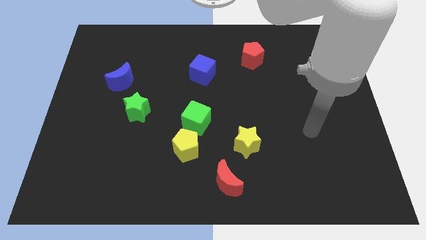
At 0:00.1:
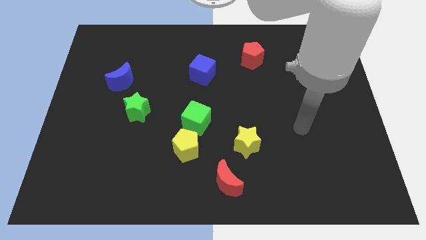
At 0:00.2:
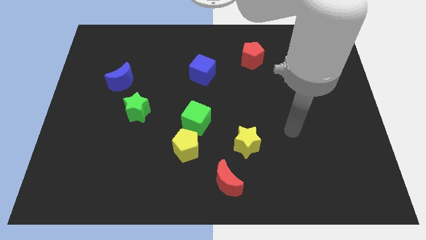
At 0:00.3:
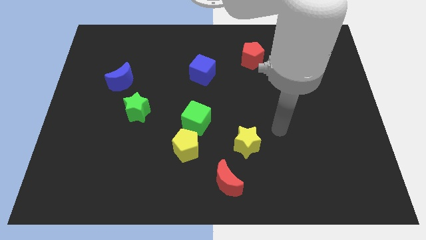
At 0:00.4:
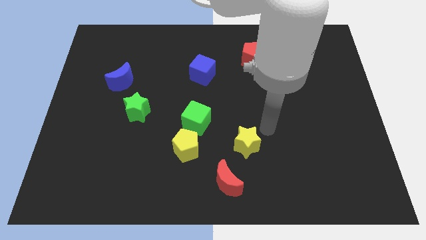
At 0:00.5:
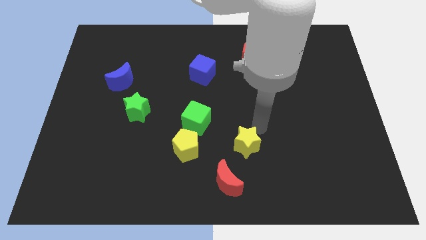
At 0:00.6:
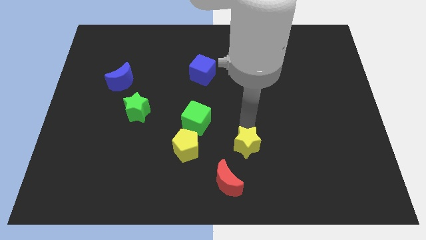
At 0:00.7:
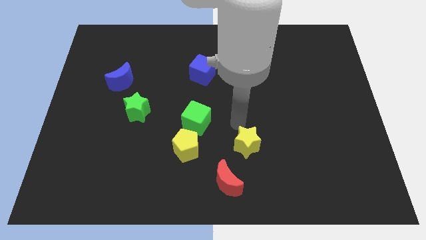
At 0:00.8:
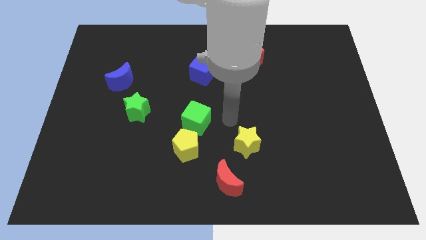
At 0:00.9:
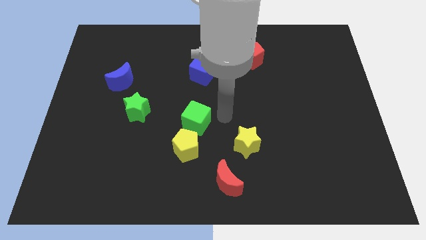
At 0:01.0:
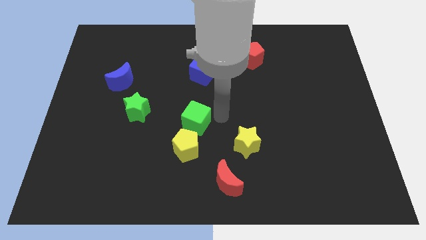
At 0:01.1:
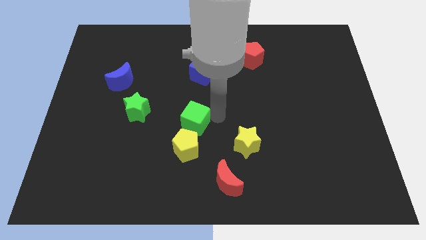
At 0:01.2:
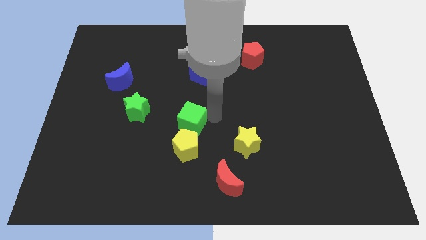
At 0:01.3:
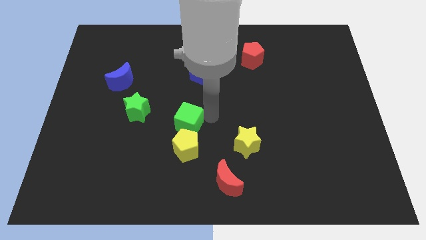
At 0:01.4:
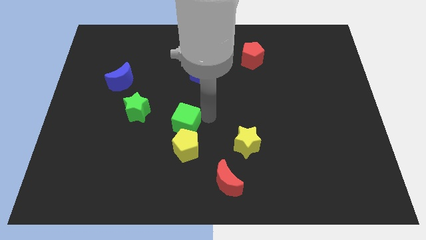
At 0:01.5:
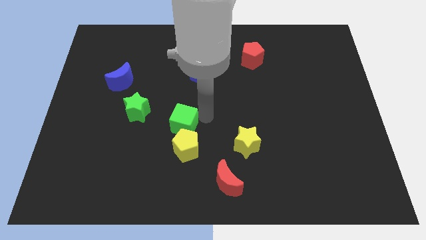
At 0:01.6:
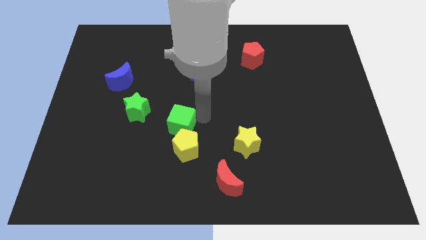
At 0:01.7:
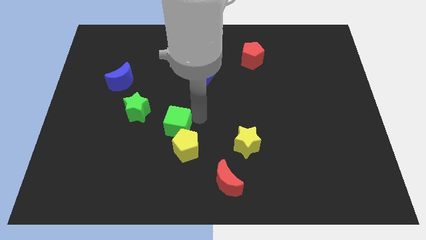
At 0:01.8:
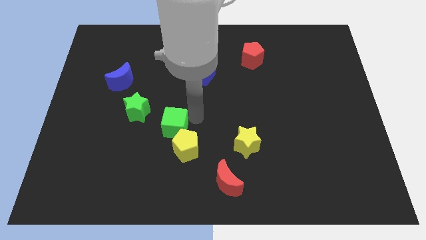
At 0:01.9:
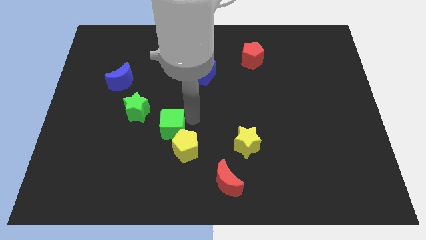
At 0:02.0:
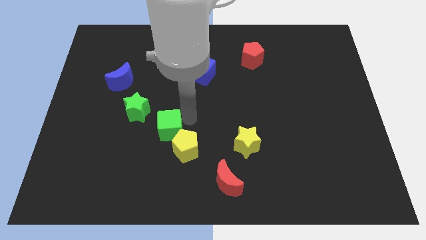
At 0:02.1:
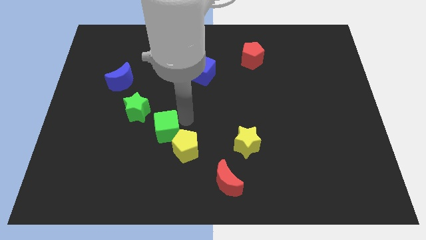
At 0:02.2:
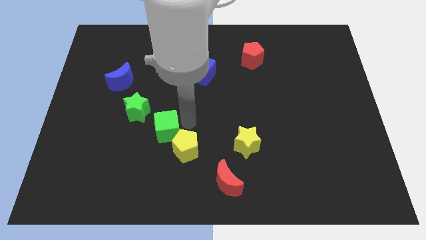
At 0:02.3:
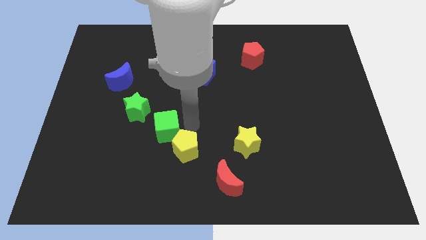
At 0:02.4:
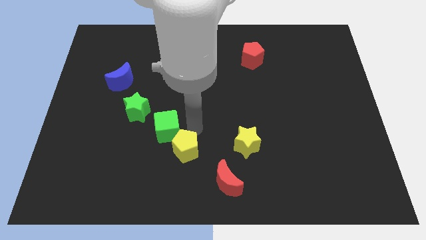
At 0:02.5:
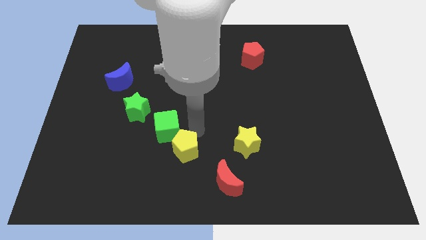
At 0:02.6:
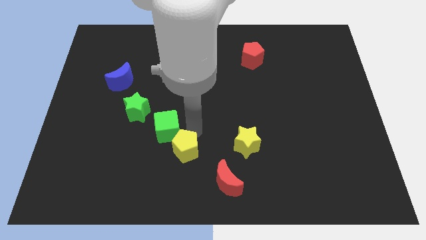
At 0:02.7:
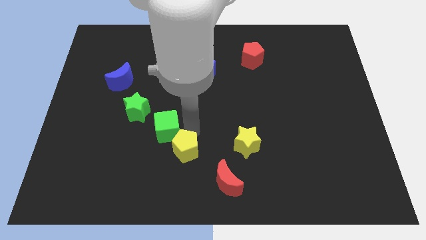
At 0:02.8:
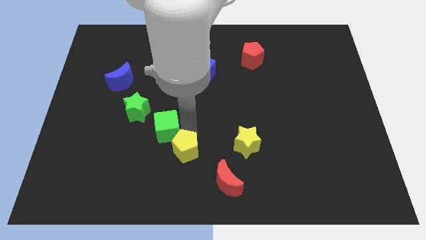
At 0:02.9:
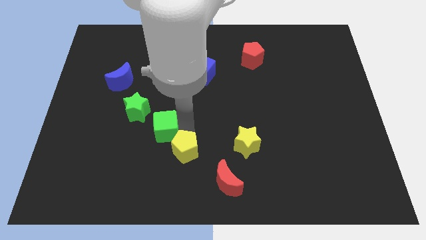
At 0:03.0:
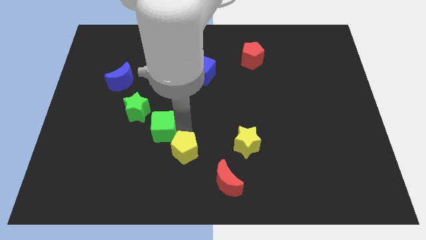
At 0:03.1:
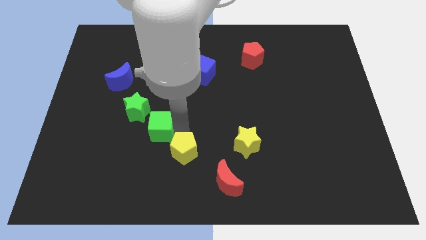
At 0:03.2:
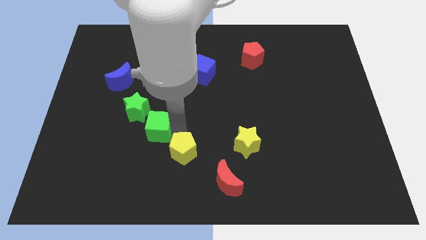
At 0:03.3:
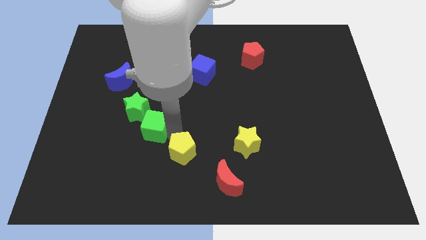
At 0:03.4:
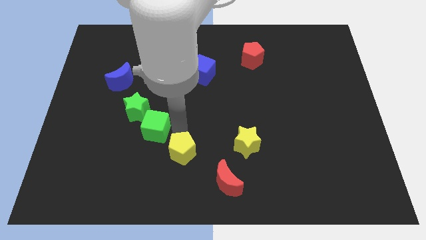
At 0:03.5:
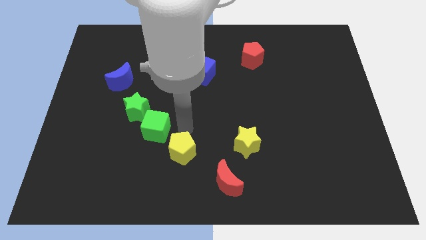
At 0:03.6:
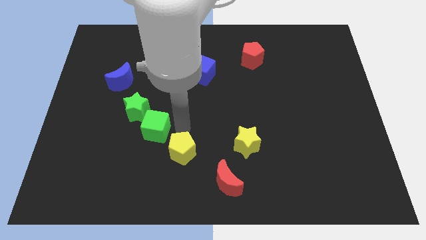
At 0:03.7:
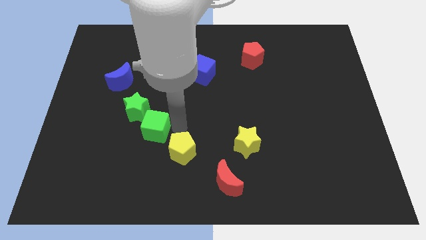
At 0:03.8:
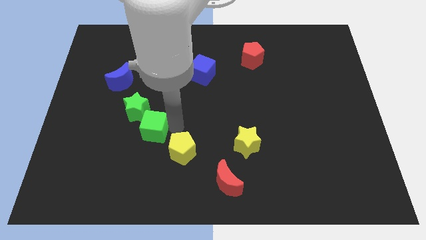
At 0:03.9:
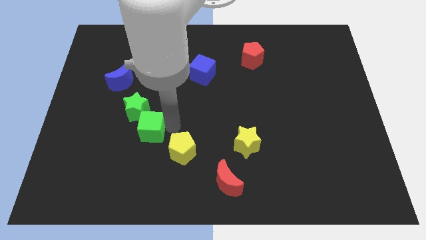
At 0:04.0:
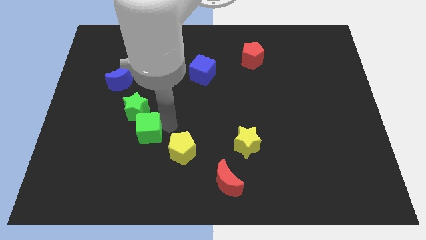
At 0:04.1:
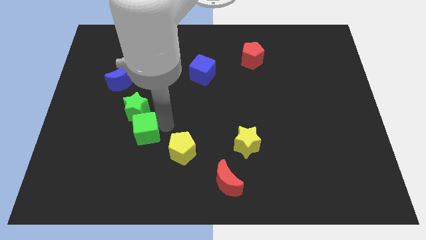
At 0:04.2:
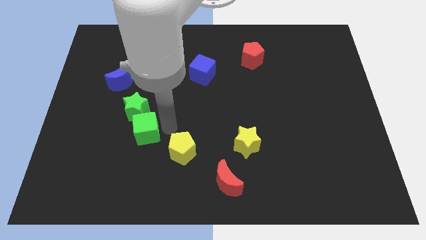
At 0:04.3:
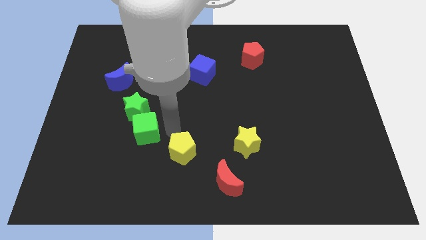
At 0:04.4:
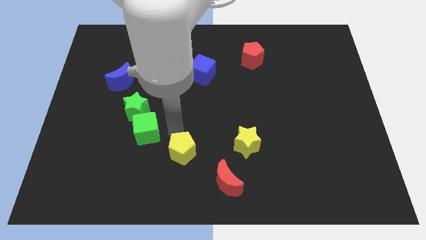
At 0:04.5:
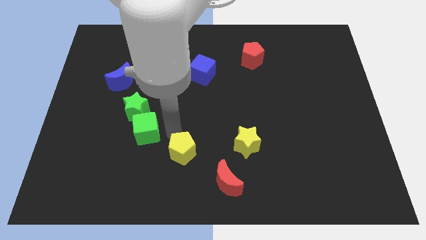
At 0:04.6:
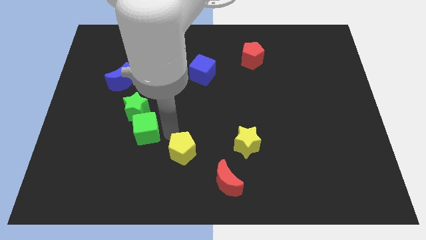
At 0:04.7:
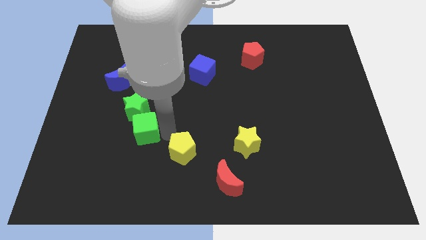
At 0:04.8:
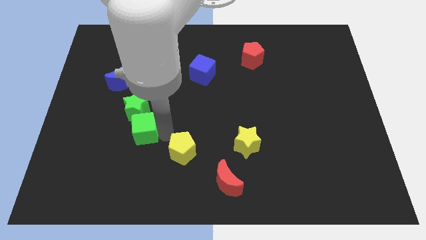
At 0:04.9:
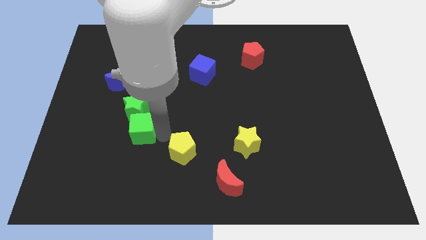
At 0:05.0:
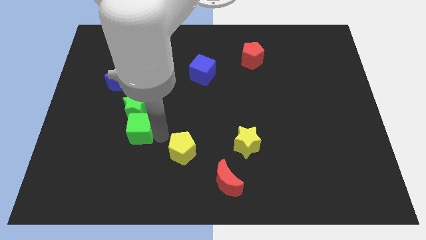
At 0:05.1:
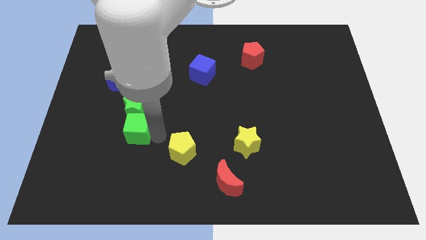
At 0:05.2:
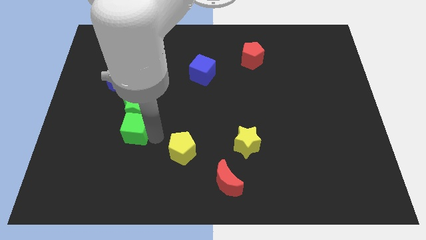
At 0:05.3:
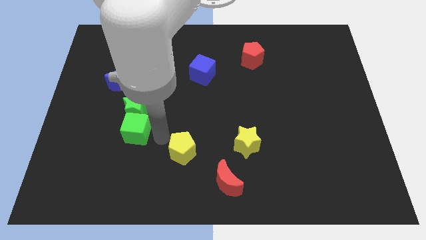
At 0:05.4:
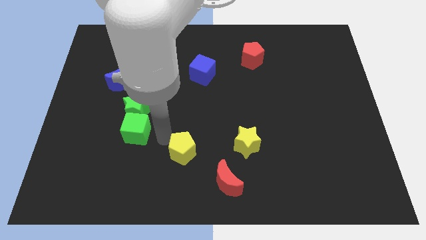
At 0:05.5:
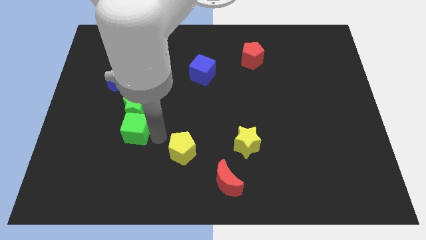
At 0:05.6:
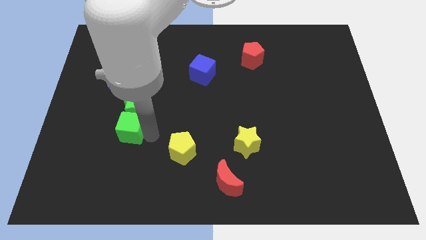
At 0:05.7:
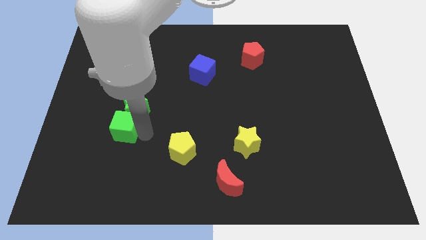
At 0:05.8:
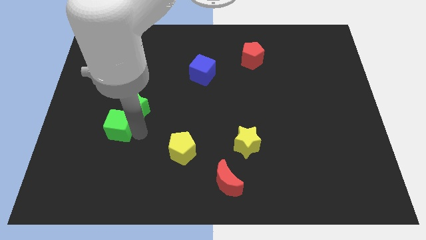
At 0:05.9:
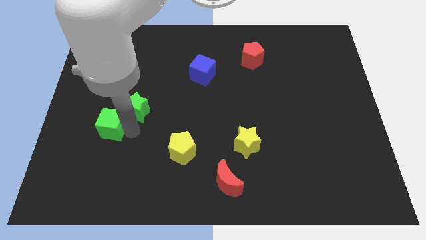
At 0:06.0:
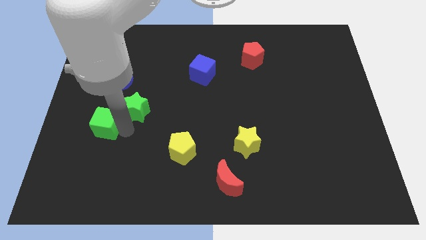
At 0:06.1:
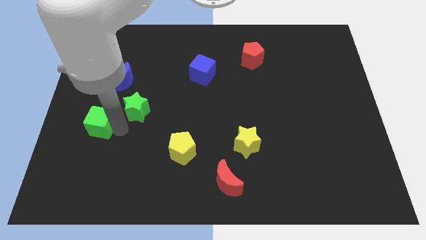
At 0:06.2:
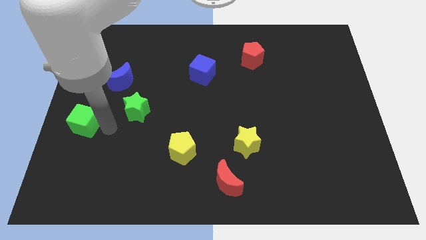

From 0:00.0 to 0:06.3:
slide the green cube to the center left

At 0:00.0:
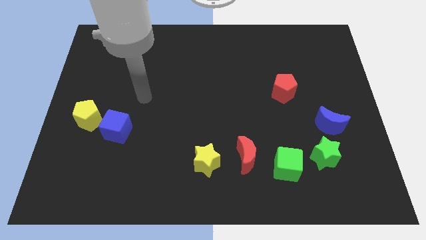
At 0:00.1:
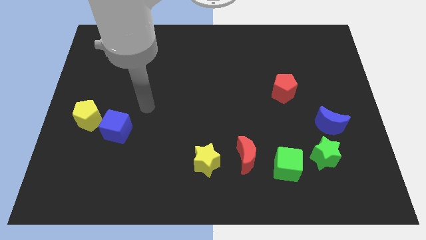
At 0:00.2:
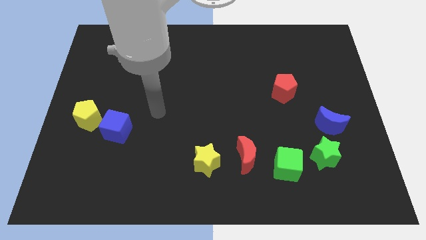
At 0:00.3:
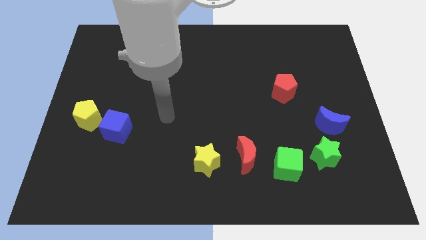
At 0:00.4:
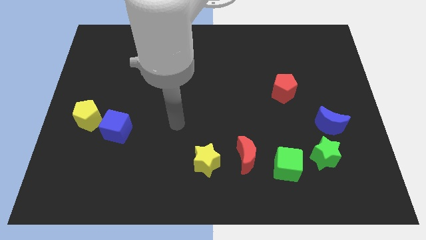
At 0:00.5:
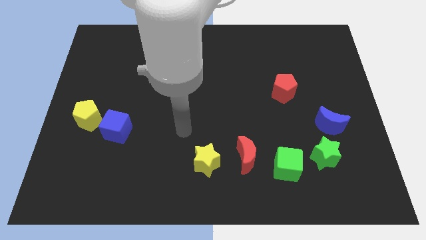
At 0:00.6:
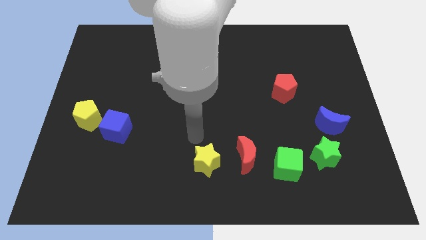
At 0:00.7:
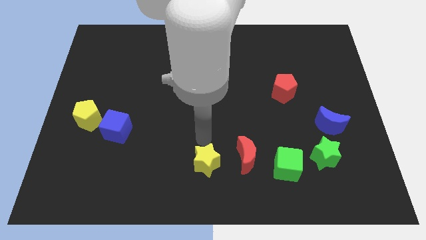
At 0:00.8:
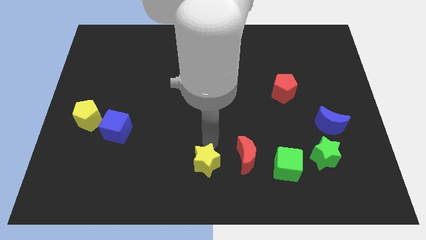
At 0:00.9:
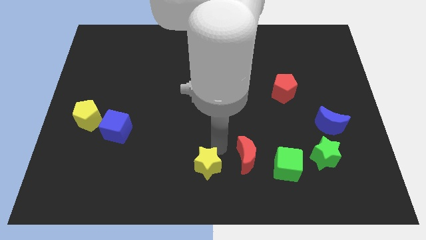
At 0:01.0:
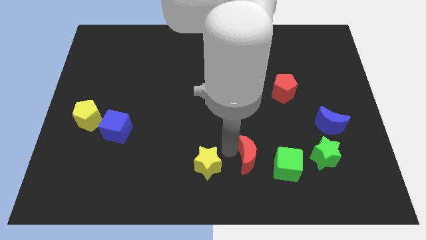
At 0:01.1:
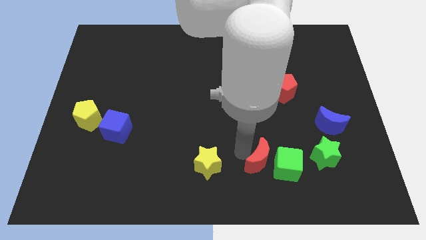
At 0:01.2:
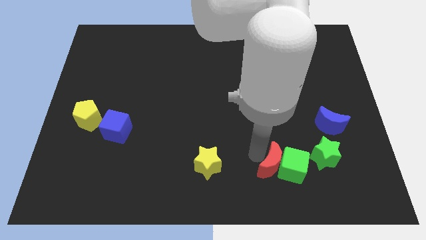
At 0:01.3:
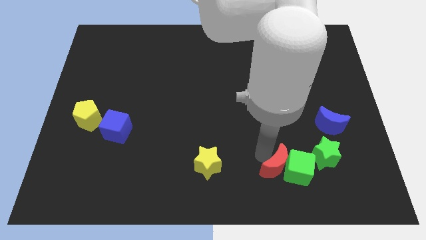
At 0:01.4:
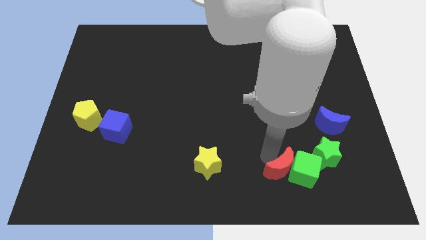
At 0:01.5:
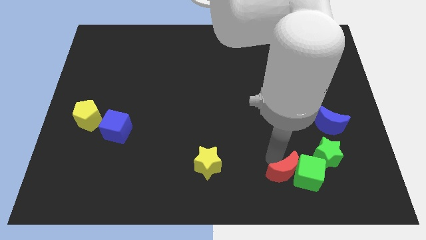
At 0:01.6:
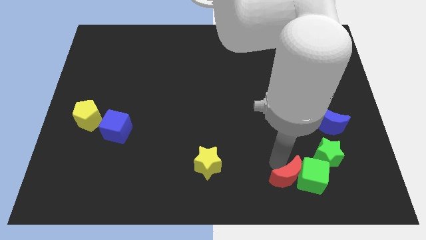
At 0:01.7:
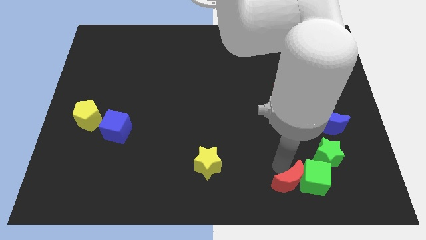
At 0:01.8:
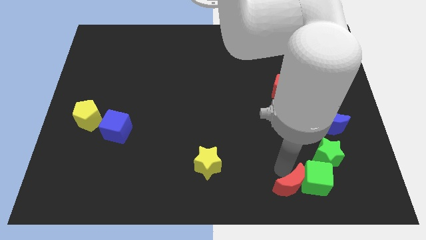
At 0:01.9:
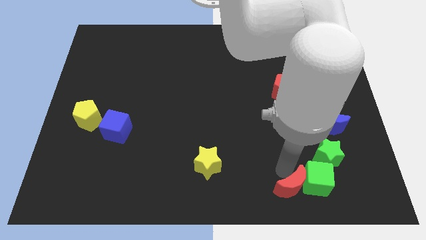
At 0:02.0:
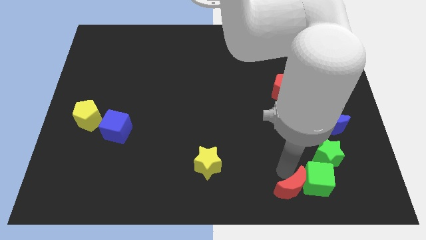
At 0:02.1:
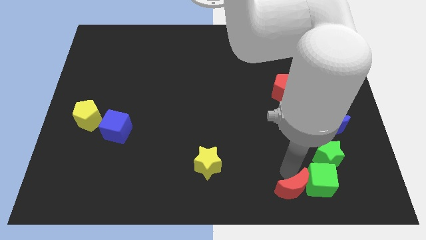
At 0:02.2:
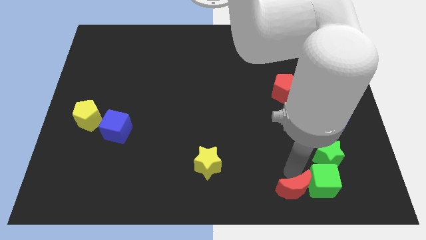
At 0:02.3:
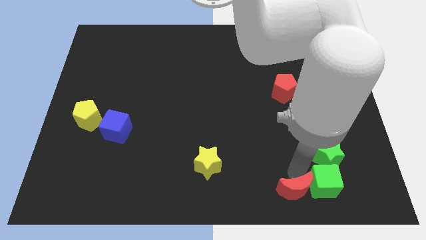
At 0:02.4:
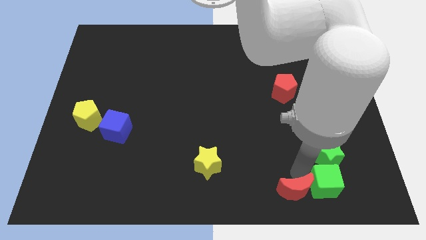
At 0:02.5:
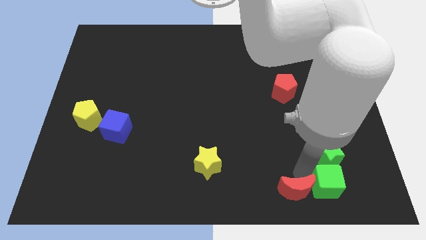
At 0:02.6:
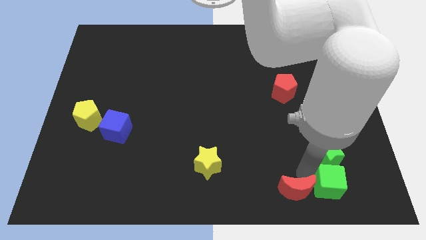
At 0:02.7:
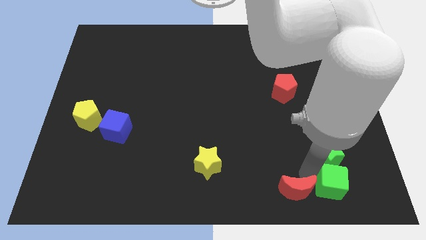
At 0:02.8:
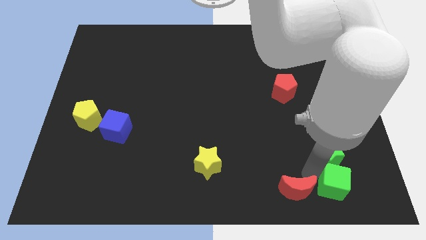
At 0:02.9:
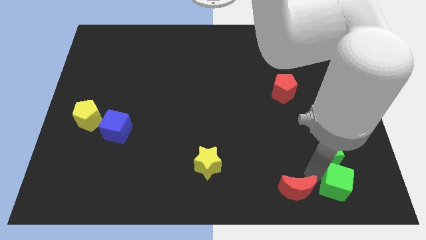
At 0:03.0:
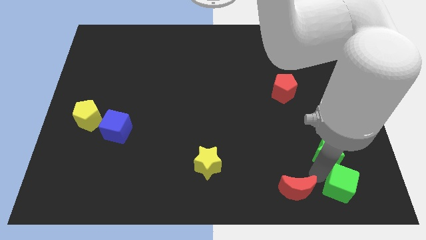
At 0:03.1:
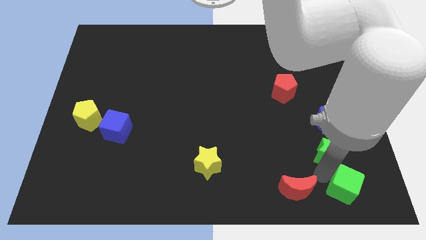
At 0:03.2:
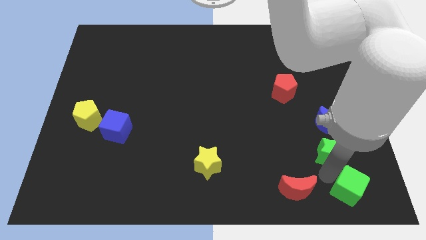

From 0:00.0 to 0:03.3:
put the green cube to the bottom right of the board
